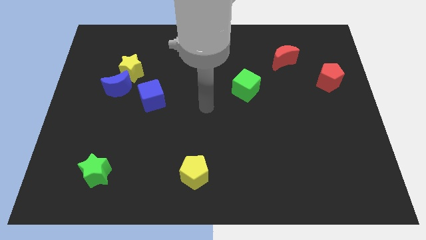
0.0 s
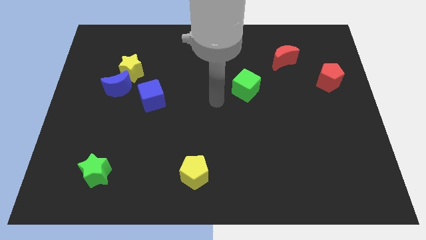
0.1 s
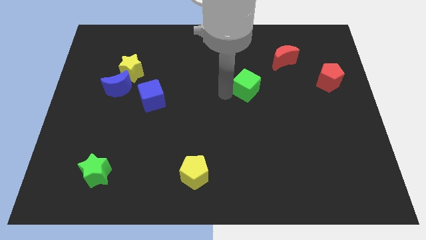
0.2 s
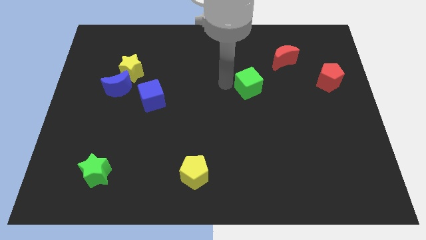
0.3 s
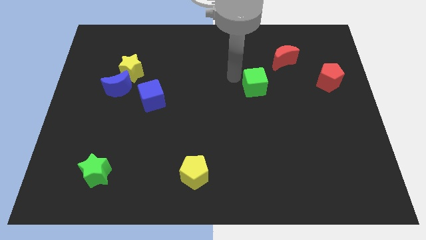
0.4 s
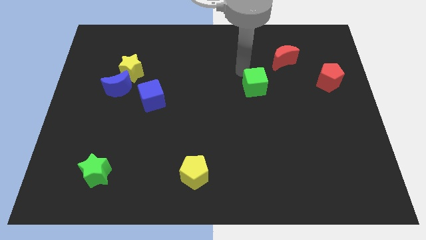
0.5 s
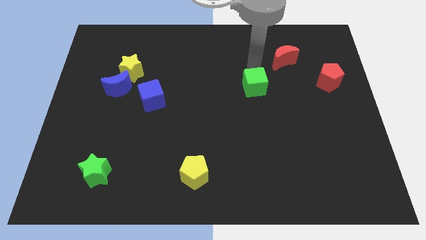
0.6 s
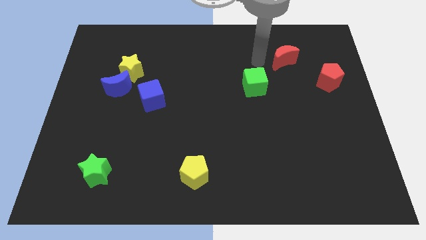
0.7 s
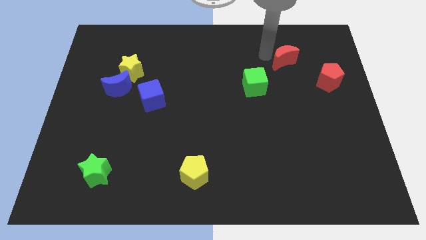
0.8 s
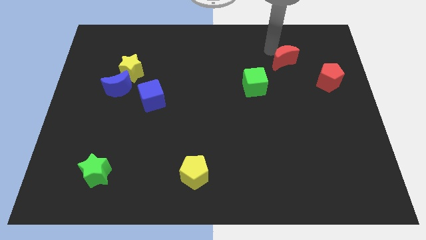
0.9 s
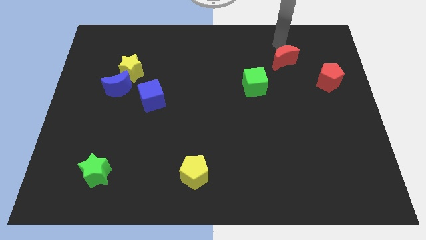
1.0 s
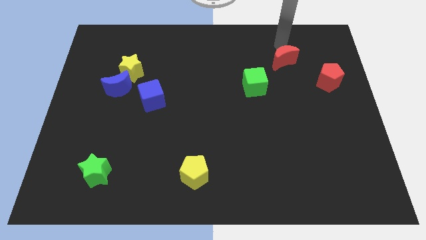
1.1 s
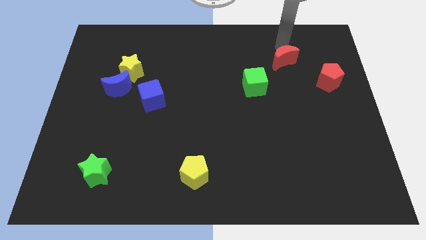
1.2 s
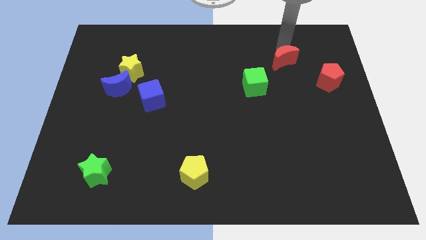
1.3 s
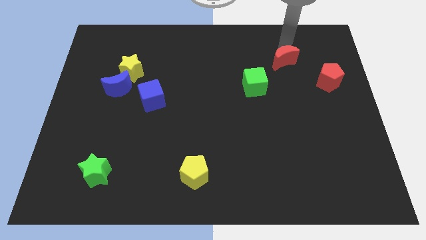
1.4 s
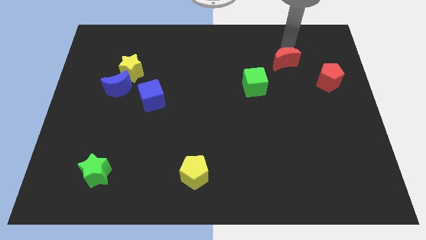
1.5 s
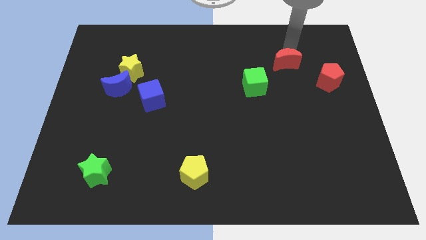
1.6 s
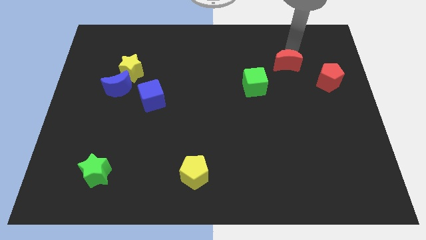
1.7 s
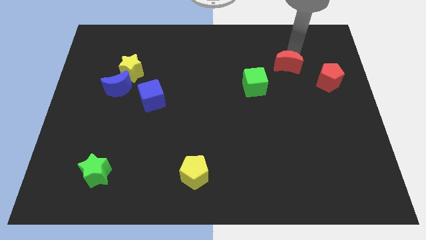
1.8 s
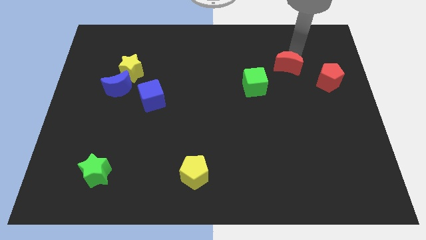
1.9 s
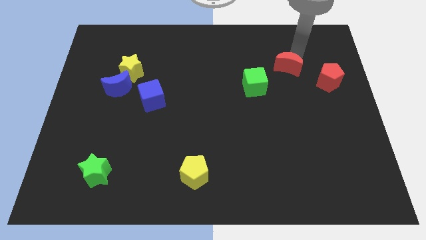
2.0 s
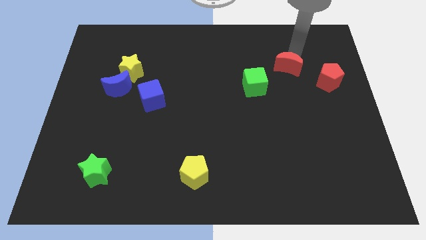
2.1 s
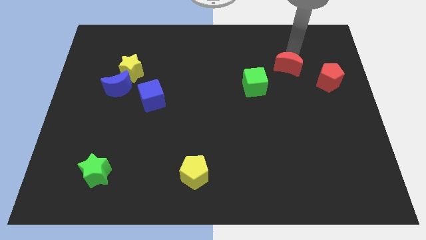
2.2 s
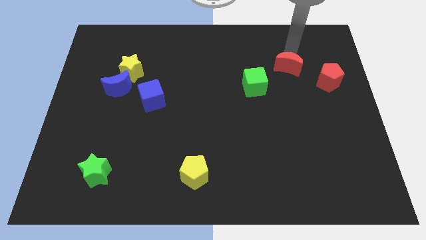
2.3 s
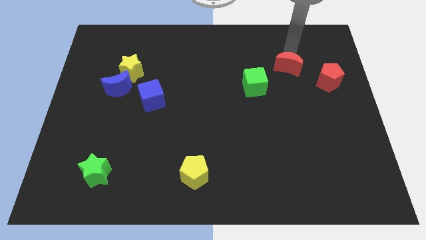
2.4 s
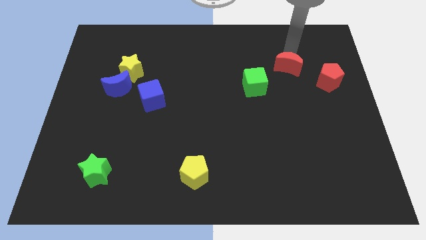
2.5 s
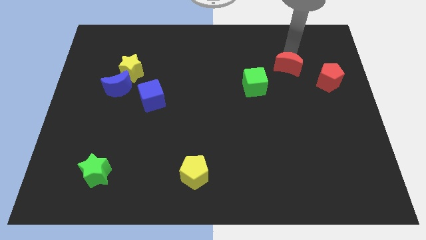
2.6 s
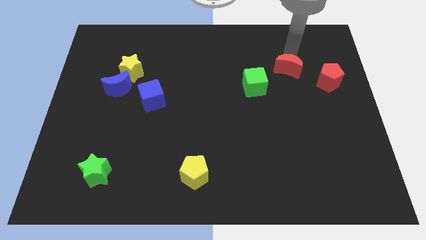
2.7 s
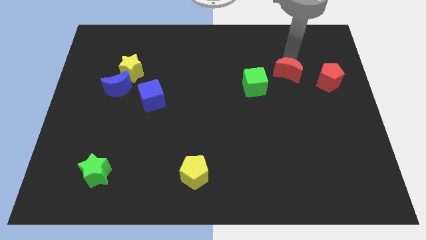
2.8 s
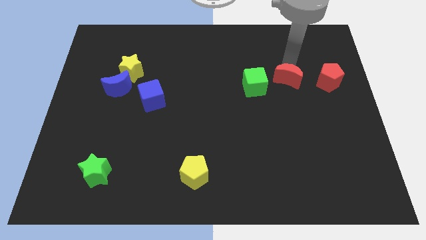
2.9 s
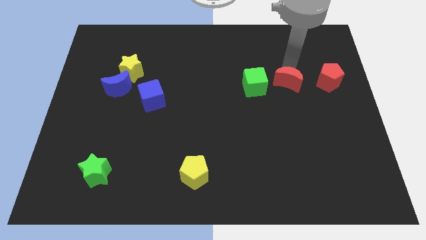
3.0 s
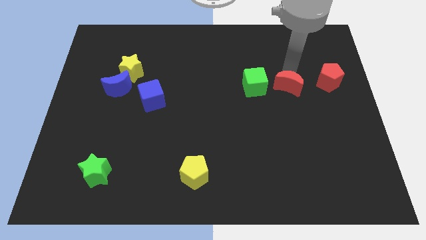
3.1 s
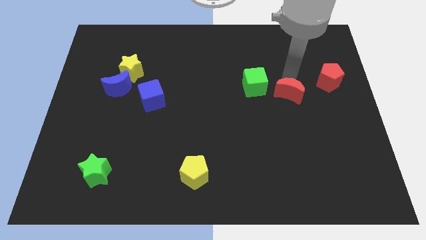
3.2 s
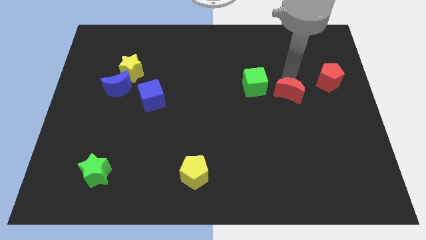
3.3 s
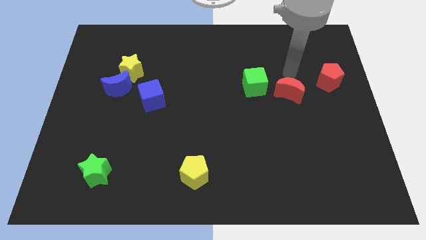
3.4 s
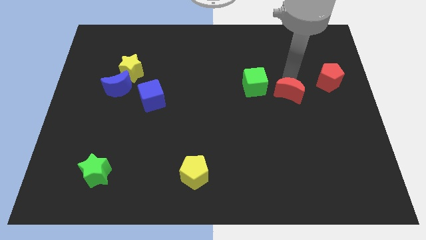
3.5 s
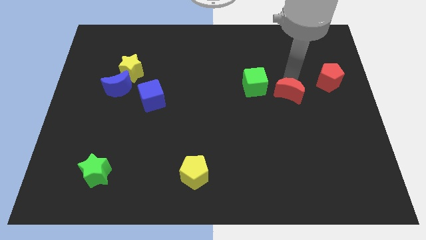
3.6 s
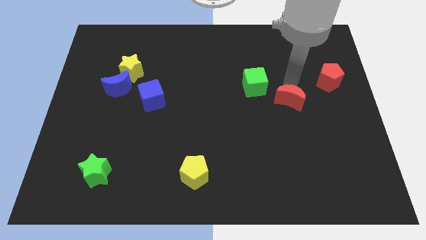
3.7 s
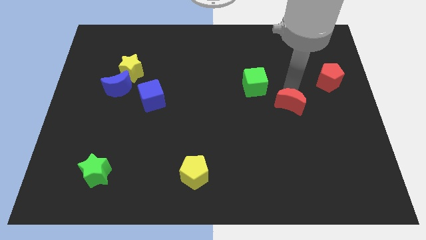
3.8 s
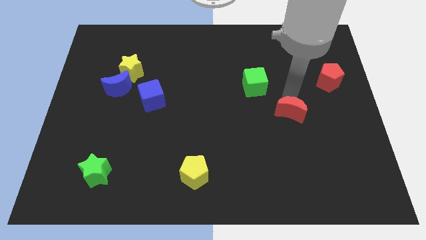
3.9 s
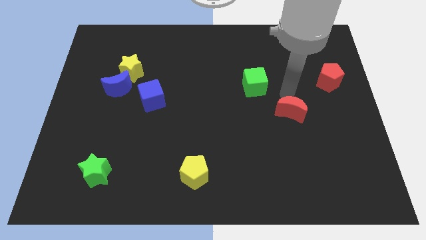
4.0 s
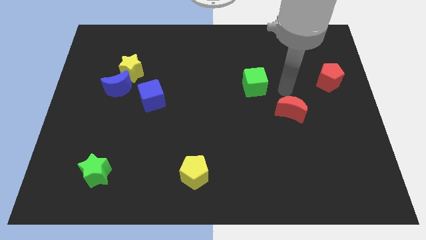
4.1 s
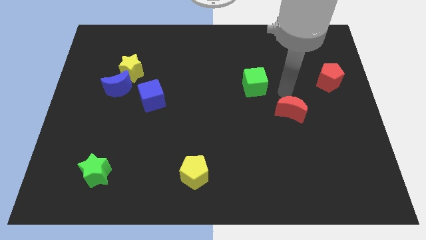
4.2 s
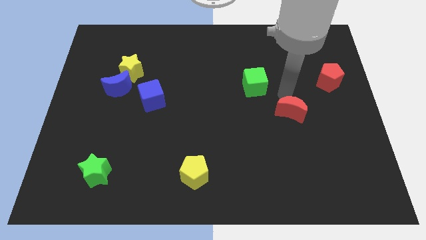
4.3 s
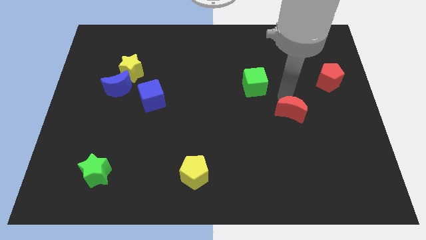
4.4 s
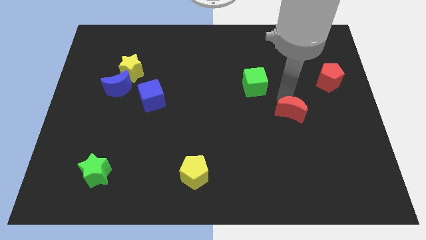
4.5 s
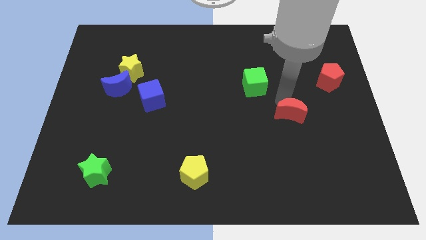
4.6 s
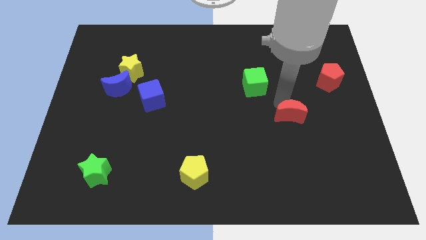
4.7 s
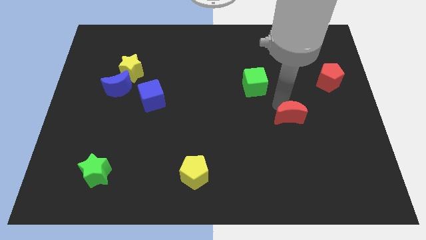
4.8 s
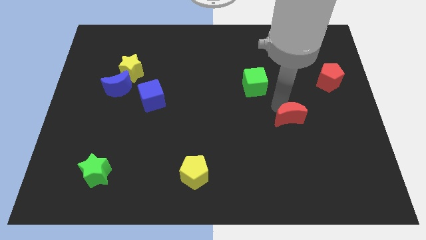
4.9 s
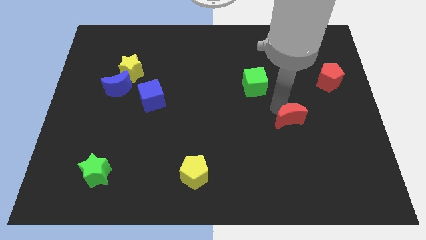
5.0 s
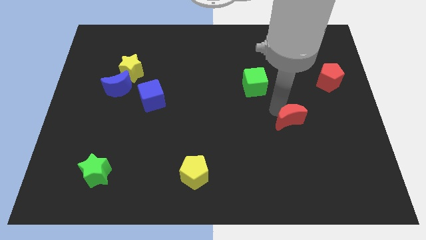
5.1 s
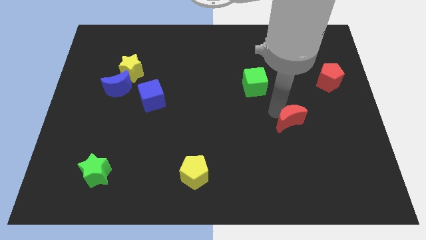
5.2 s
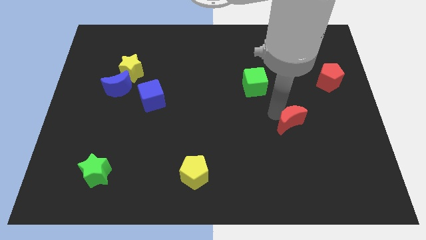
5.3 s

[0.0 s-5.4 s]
move the red moon downwards

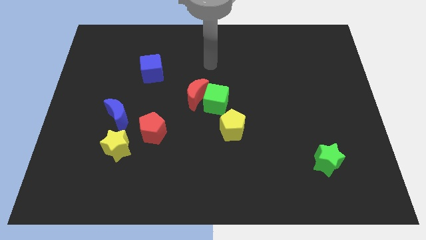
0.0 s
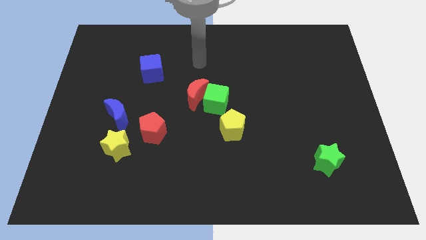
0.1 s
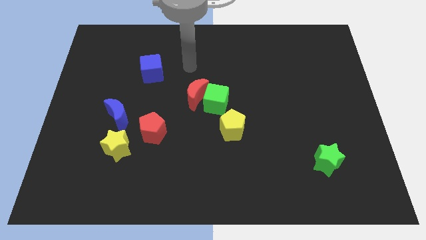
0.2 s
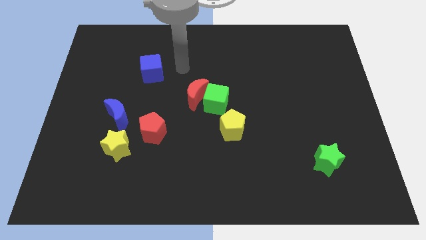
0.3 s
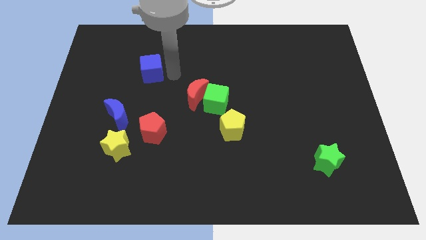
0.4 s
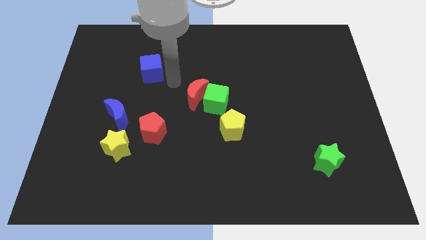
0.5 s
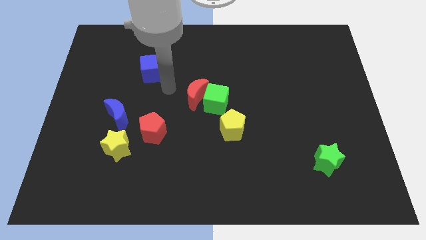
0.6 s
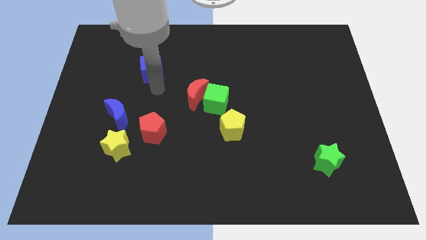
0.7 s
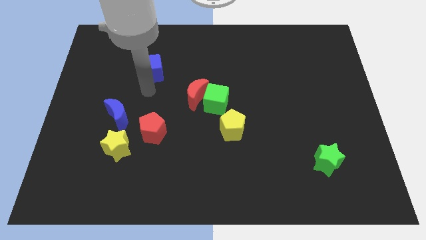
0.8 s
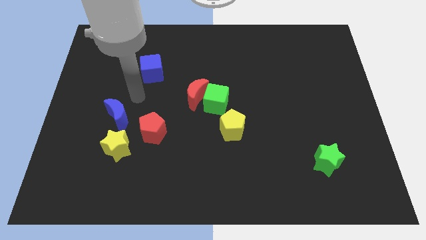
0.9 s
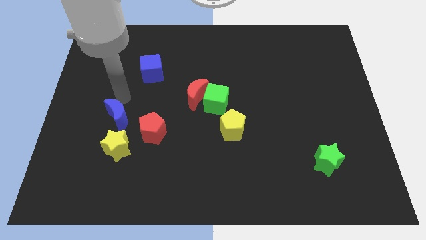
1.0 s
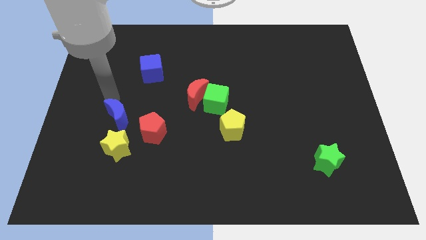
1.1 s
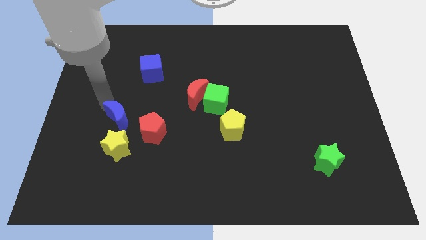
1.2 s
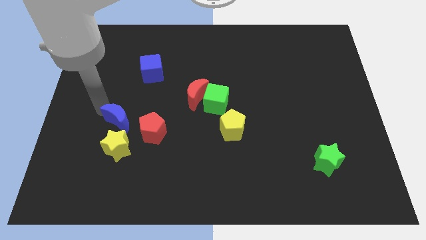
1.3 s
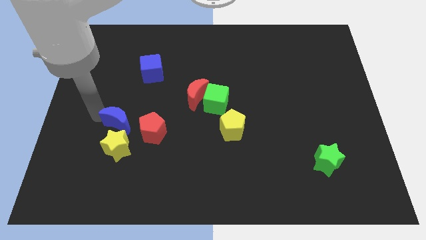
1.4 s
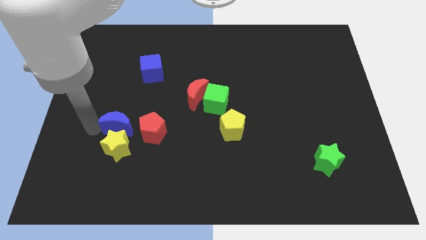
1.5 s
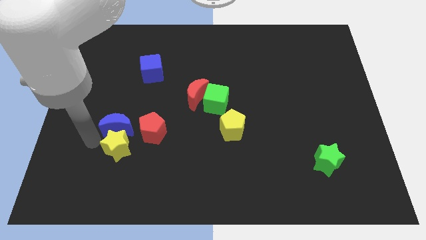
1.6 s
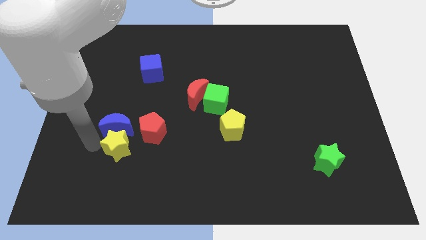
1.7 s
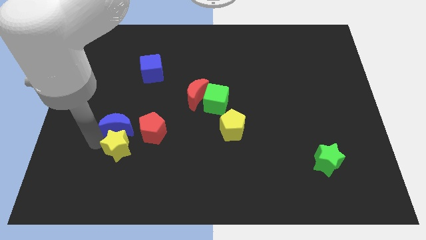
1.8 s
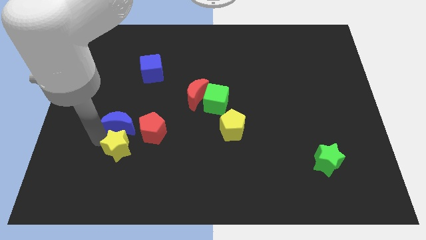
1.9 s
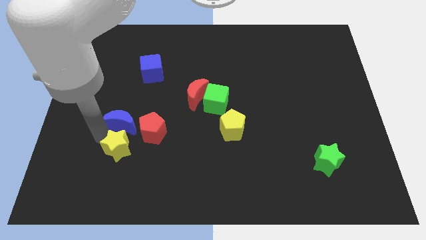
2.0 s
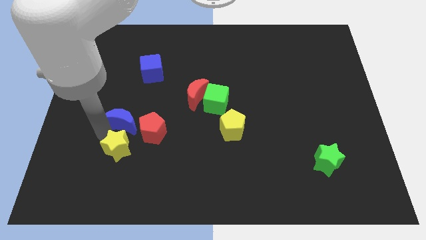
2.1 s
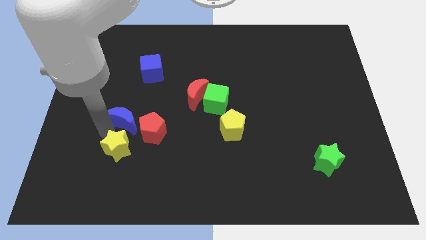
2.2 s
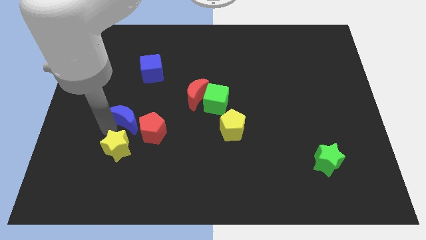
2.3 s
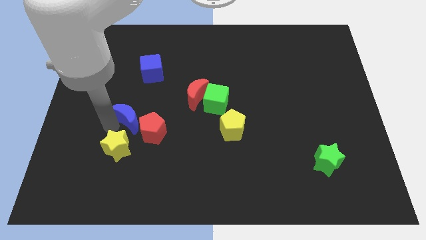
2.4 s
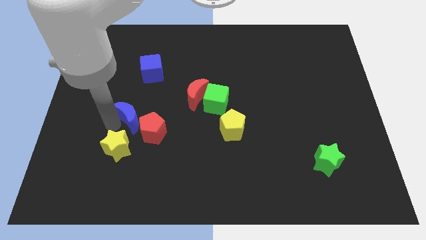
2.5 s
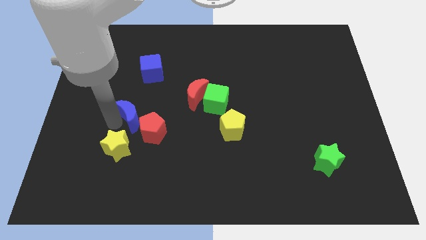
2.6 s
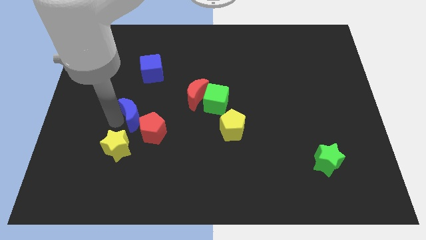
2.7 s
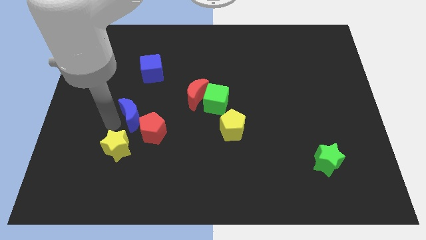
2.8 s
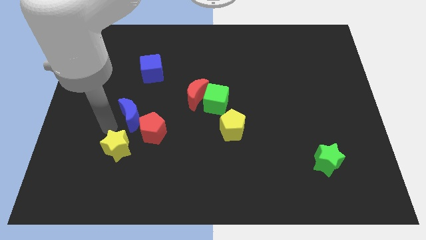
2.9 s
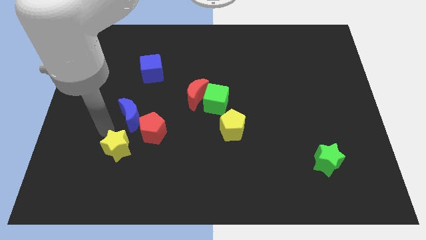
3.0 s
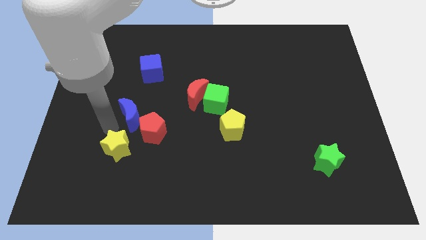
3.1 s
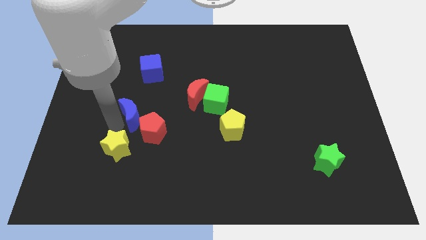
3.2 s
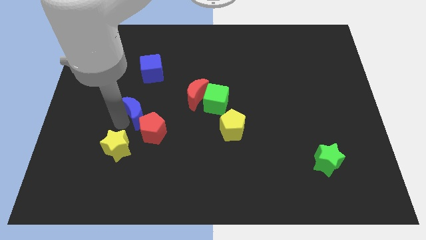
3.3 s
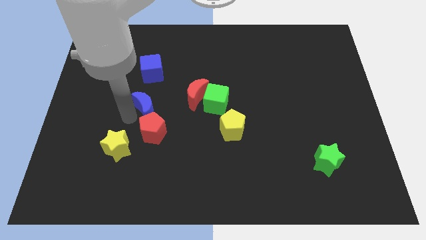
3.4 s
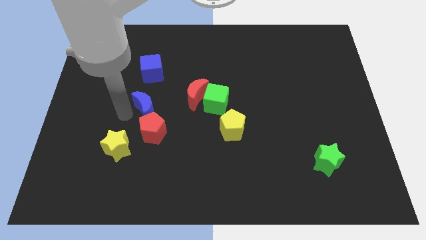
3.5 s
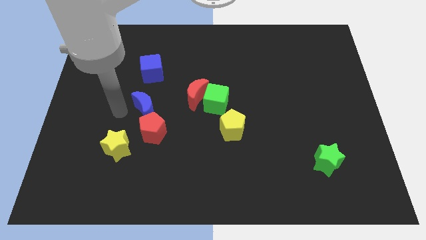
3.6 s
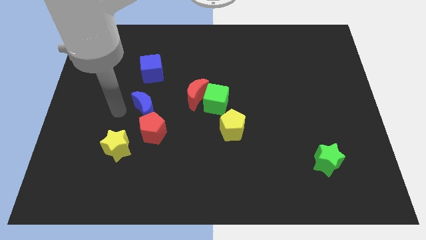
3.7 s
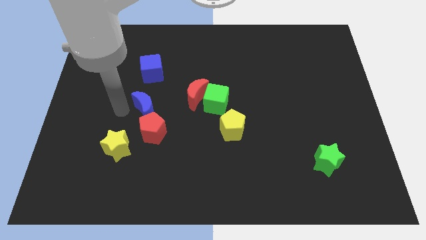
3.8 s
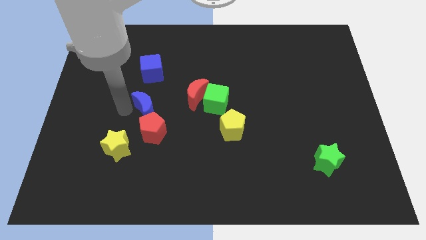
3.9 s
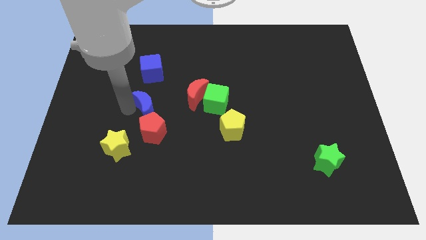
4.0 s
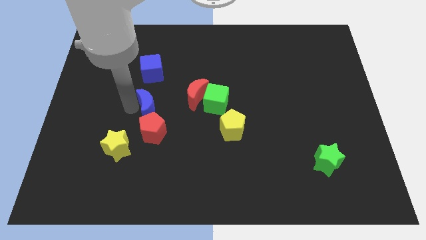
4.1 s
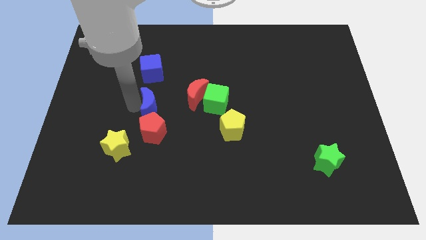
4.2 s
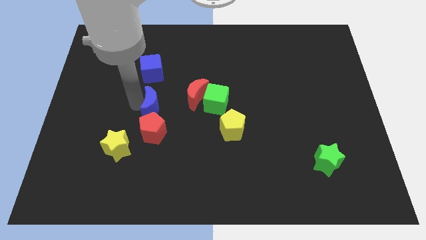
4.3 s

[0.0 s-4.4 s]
move the blue moon slightly right
